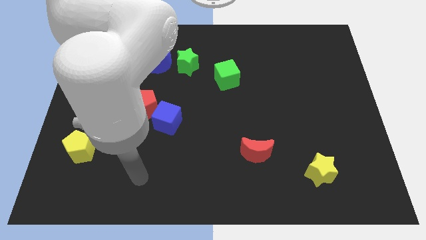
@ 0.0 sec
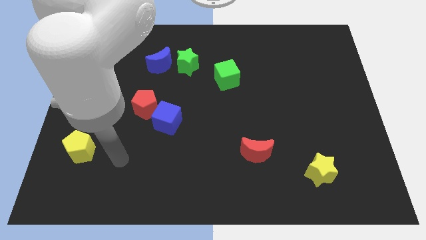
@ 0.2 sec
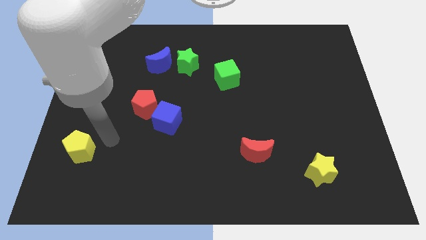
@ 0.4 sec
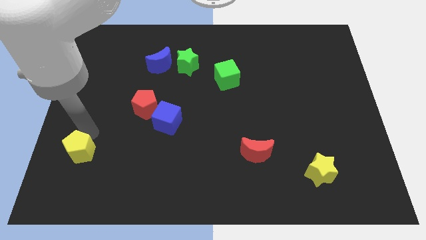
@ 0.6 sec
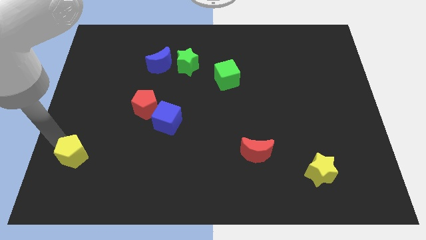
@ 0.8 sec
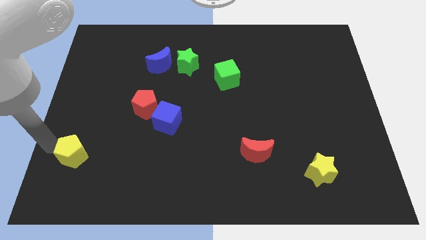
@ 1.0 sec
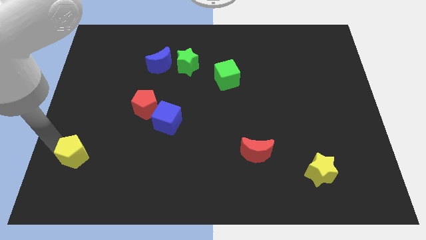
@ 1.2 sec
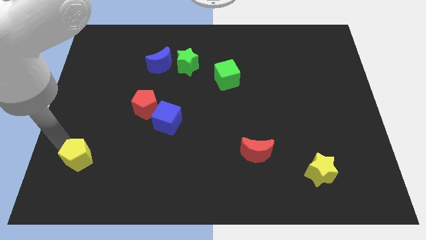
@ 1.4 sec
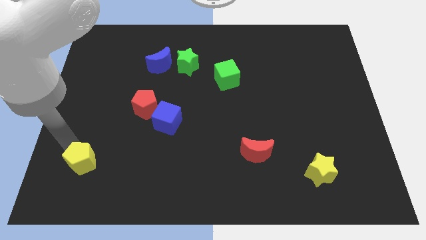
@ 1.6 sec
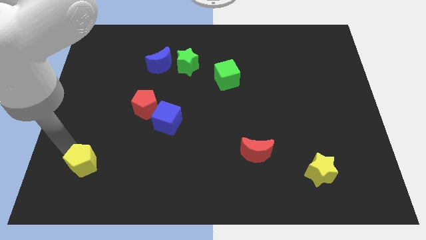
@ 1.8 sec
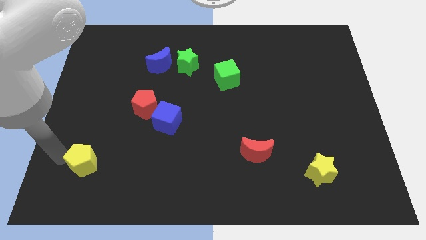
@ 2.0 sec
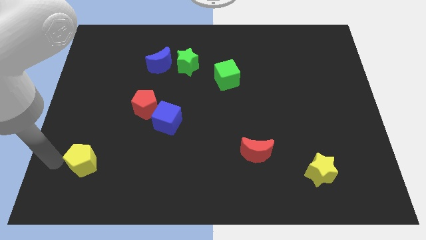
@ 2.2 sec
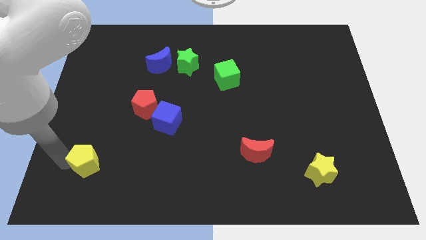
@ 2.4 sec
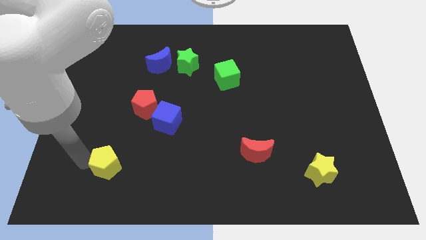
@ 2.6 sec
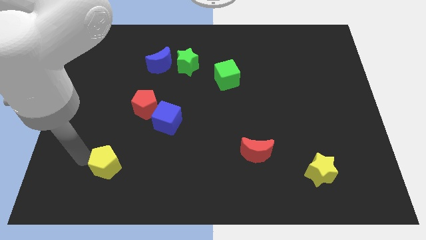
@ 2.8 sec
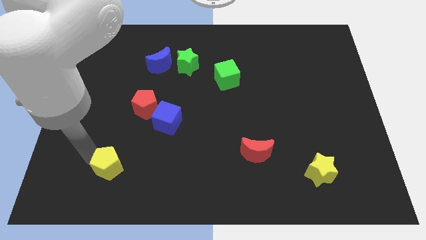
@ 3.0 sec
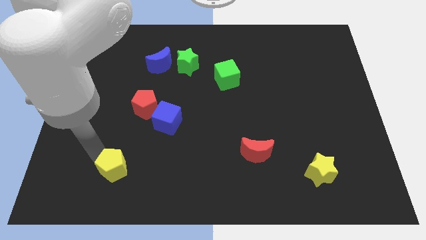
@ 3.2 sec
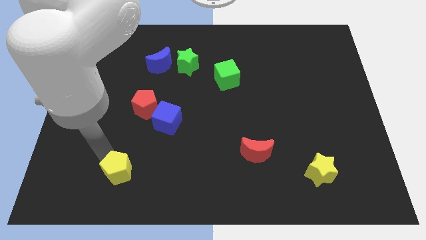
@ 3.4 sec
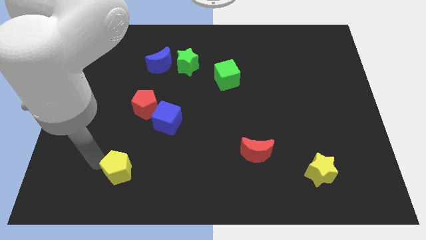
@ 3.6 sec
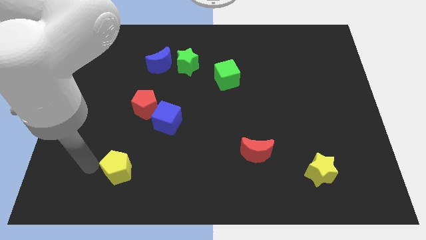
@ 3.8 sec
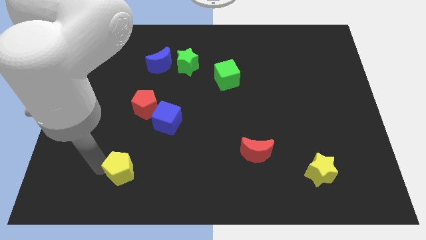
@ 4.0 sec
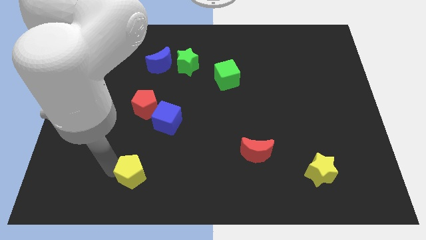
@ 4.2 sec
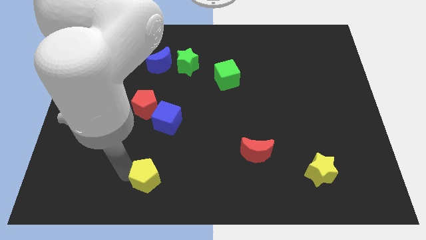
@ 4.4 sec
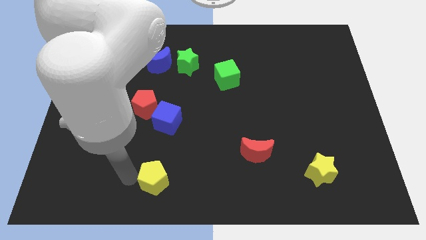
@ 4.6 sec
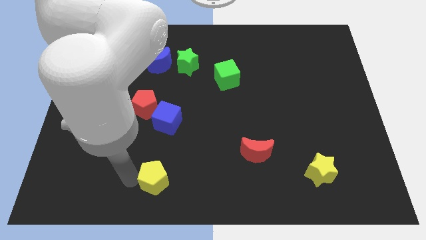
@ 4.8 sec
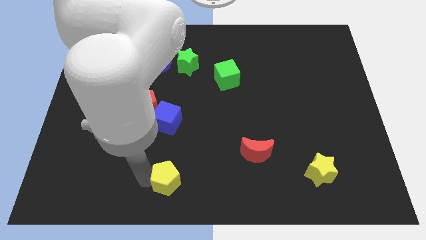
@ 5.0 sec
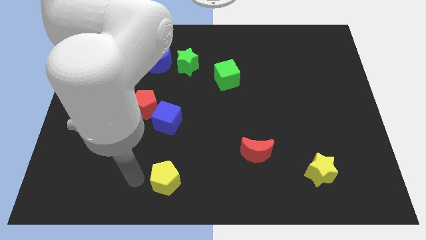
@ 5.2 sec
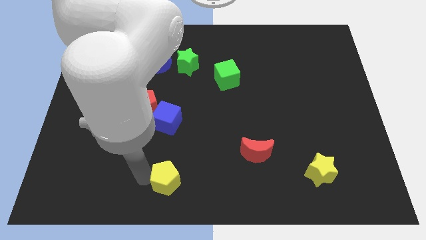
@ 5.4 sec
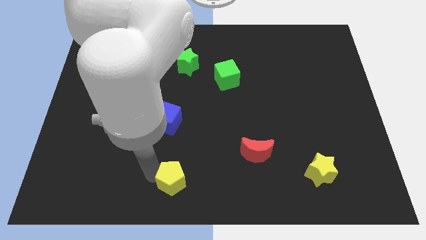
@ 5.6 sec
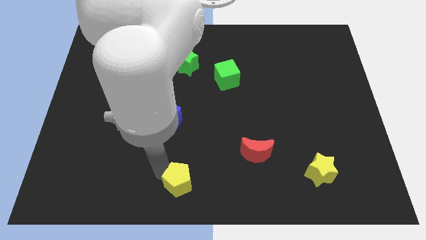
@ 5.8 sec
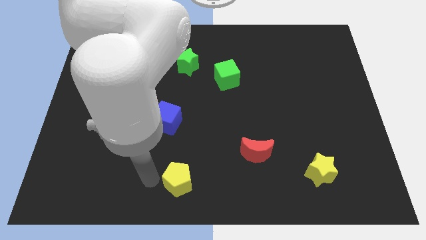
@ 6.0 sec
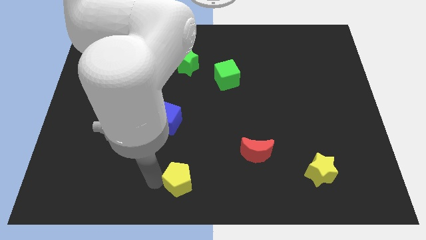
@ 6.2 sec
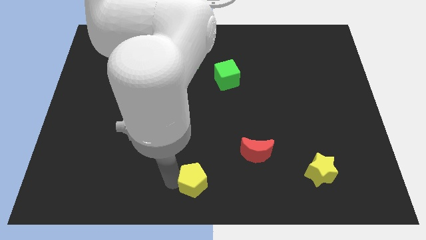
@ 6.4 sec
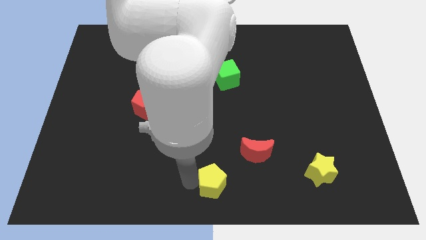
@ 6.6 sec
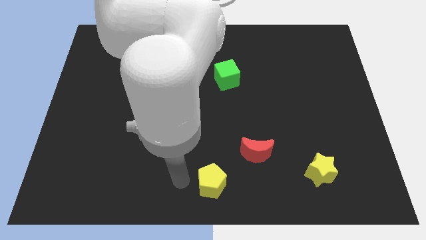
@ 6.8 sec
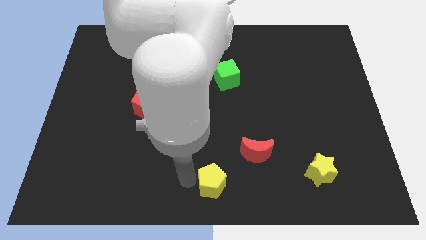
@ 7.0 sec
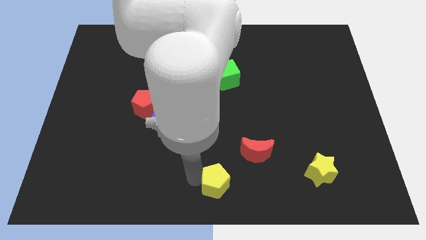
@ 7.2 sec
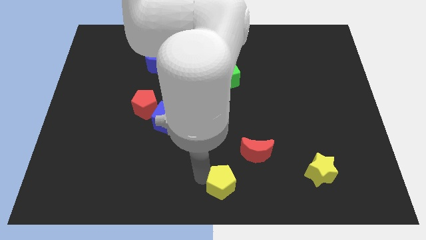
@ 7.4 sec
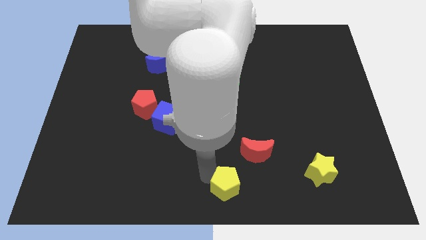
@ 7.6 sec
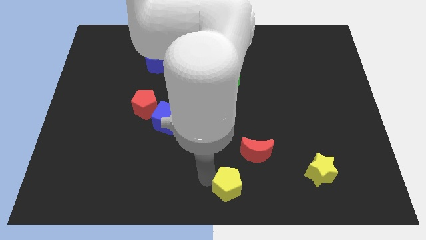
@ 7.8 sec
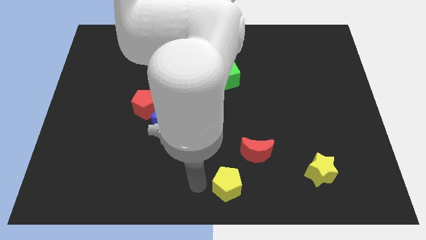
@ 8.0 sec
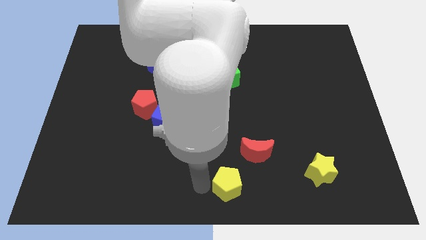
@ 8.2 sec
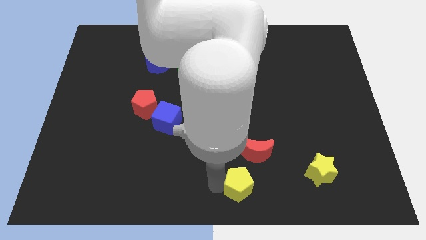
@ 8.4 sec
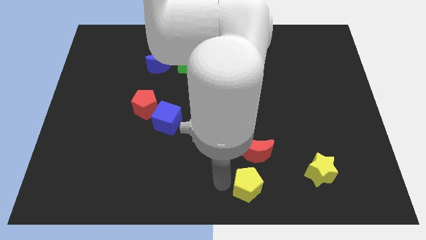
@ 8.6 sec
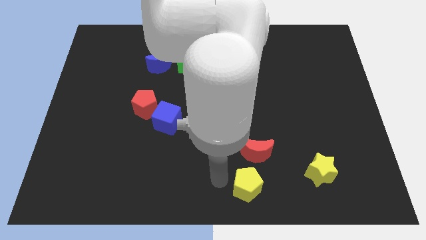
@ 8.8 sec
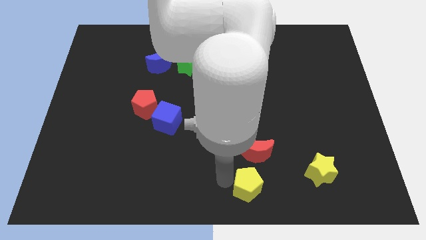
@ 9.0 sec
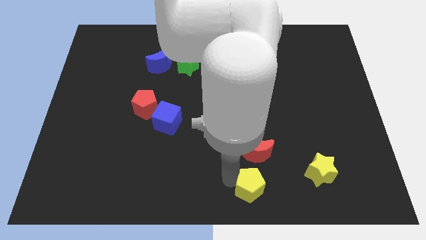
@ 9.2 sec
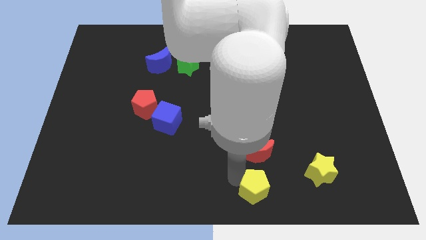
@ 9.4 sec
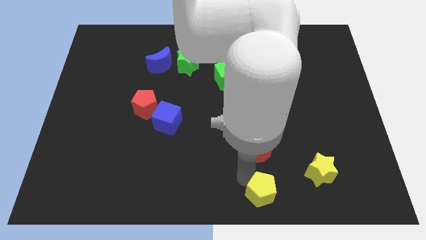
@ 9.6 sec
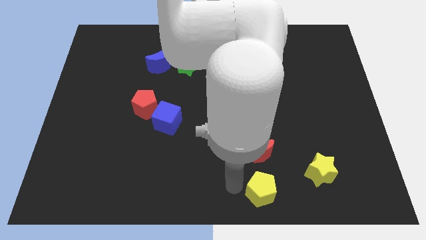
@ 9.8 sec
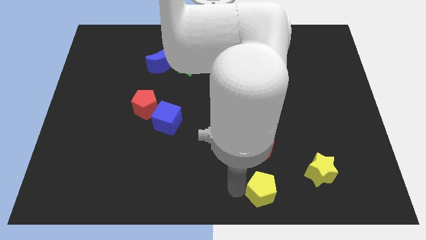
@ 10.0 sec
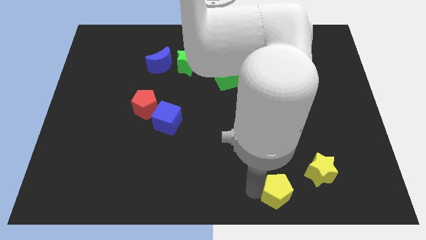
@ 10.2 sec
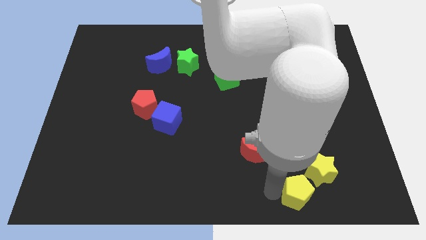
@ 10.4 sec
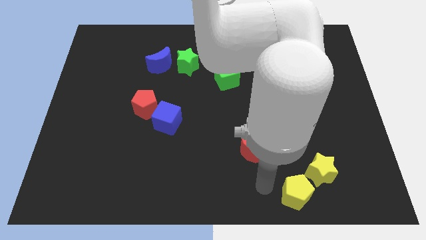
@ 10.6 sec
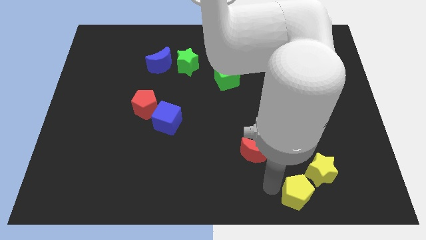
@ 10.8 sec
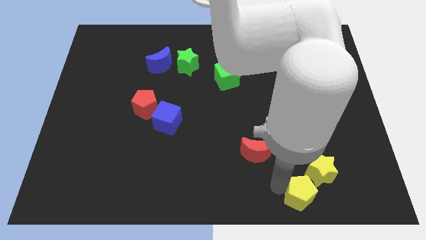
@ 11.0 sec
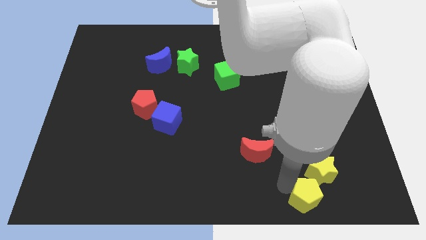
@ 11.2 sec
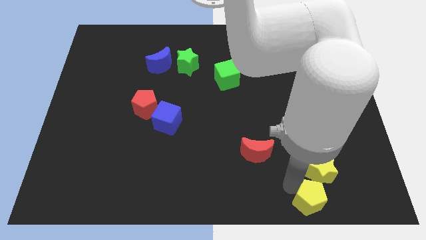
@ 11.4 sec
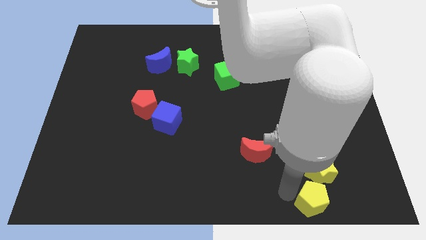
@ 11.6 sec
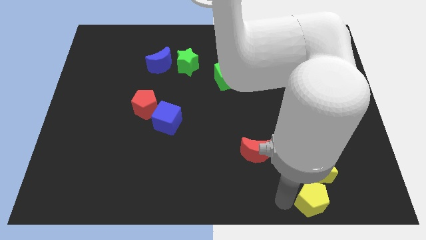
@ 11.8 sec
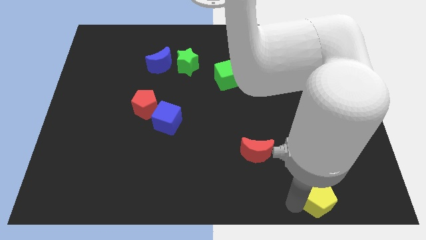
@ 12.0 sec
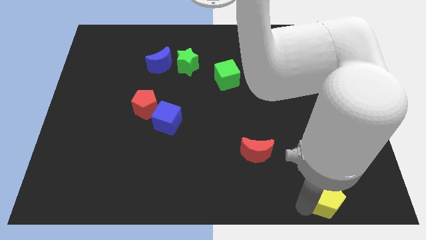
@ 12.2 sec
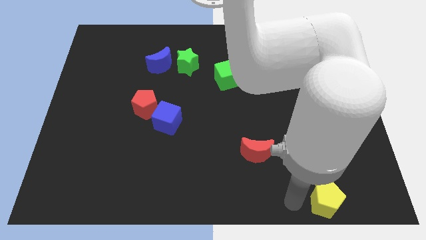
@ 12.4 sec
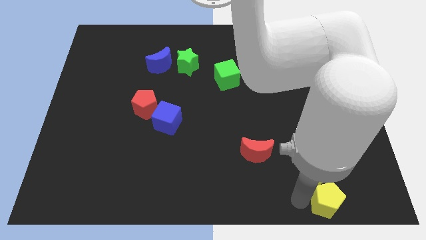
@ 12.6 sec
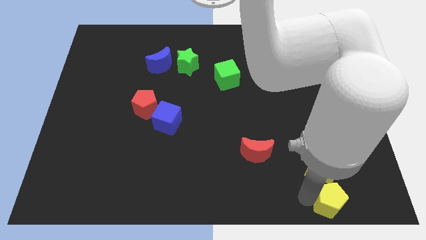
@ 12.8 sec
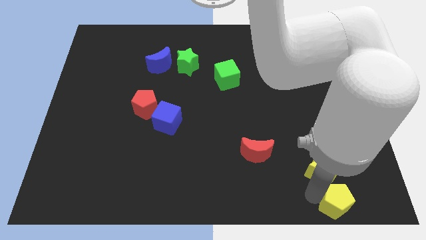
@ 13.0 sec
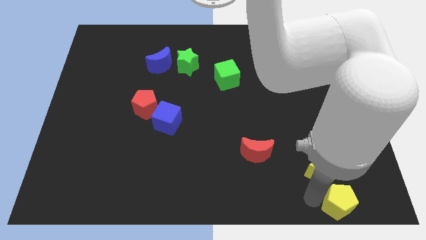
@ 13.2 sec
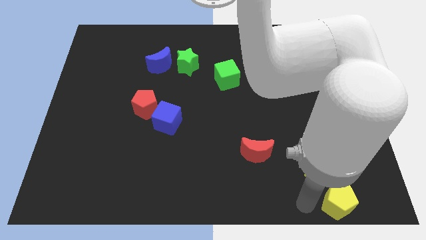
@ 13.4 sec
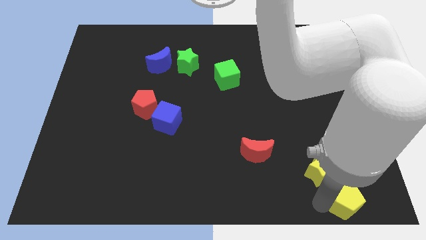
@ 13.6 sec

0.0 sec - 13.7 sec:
move the yellow pentagon to the bottom right of the board
